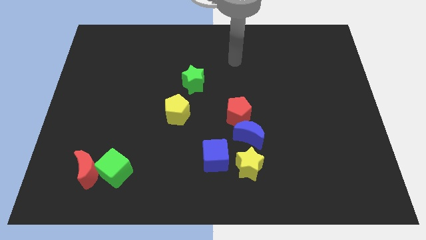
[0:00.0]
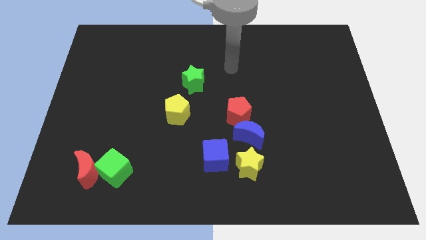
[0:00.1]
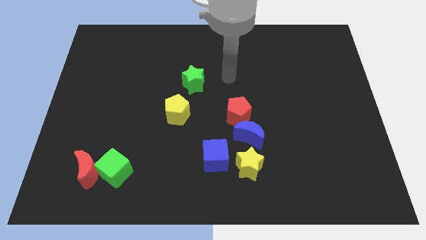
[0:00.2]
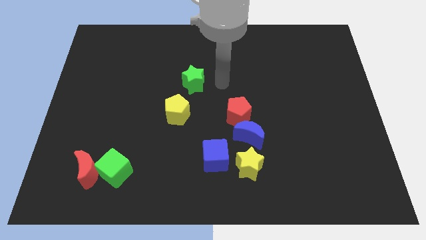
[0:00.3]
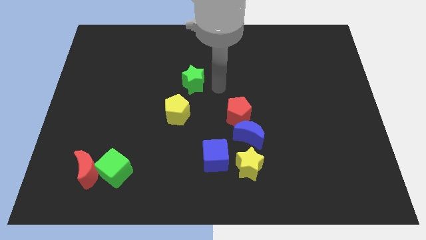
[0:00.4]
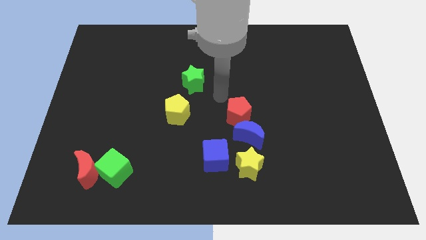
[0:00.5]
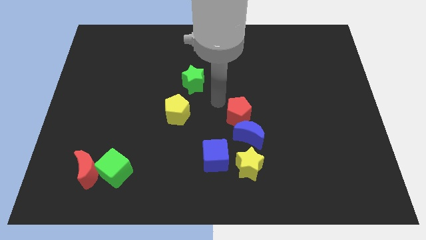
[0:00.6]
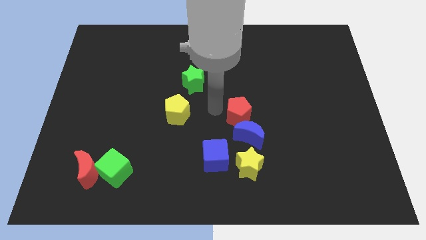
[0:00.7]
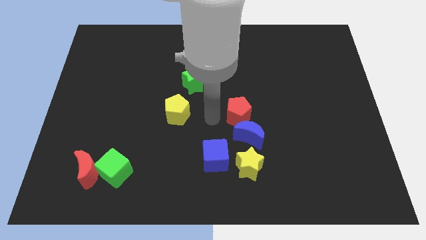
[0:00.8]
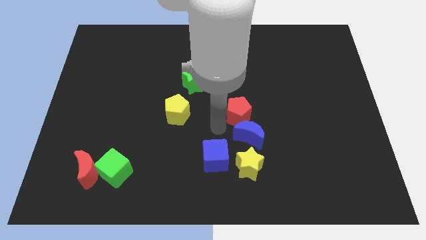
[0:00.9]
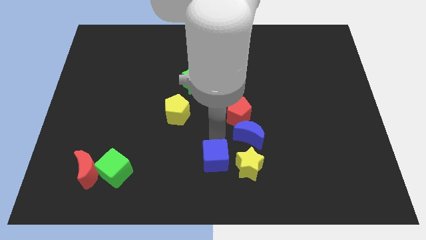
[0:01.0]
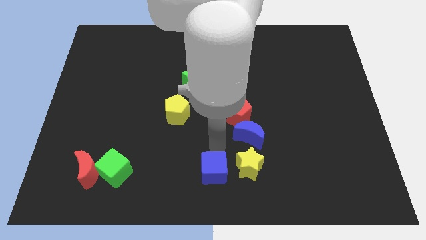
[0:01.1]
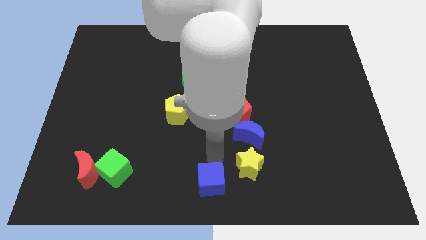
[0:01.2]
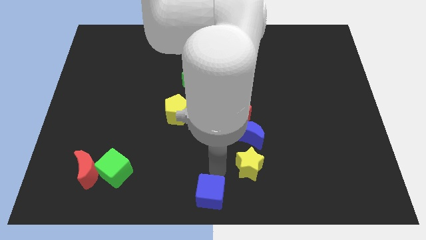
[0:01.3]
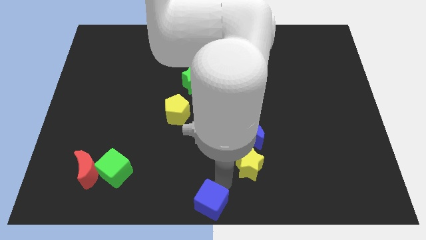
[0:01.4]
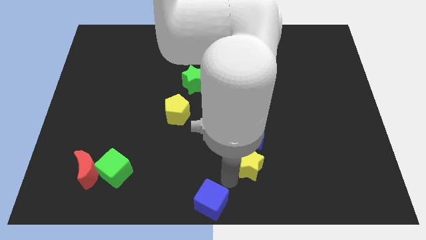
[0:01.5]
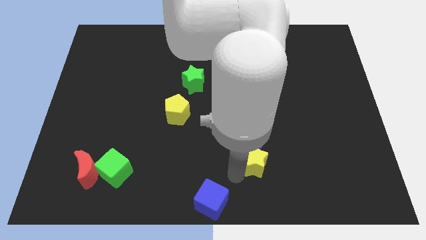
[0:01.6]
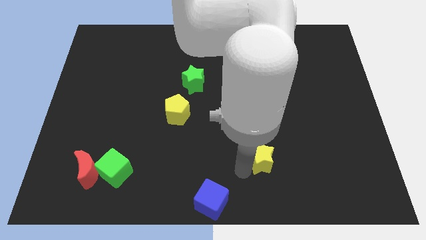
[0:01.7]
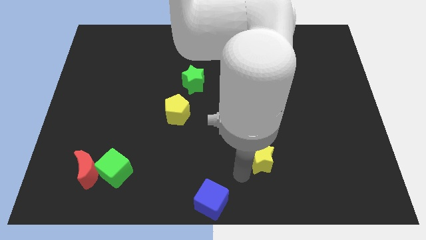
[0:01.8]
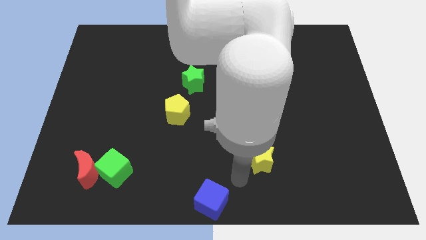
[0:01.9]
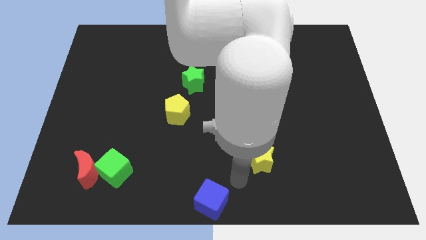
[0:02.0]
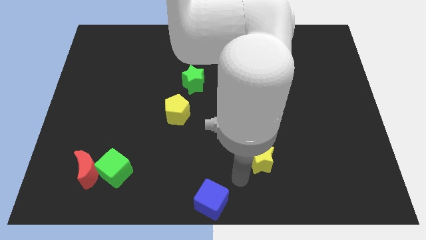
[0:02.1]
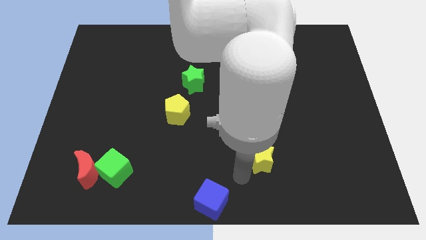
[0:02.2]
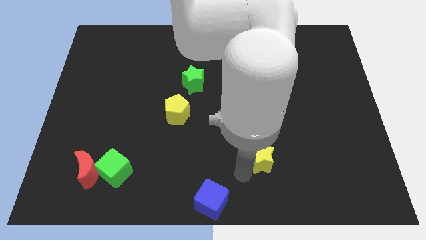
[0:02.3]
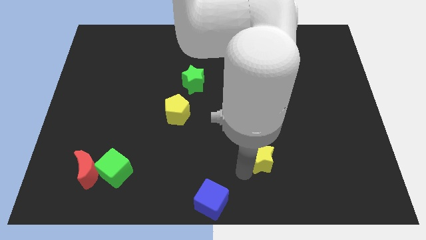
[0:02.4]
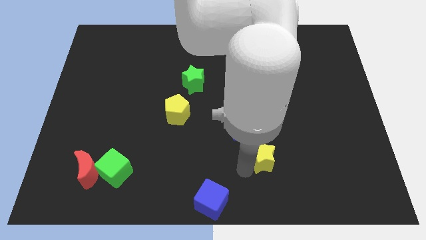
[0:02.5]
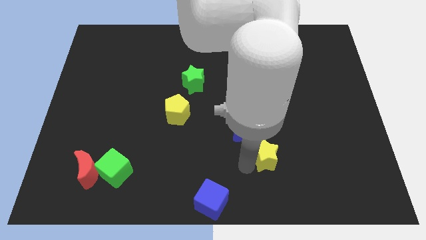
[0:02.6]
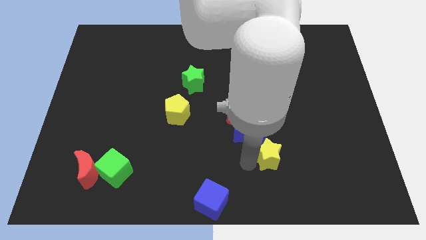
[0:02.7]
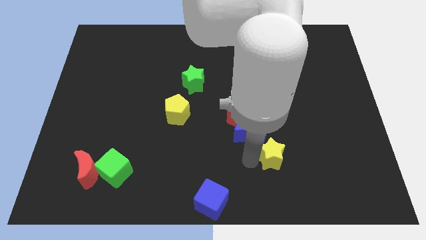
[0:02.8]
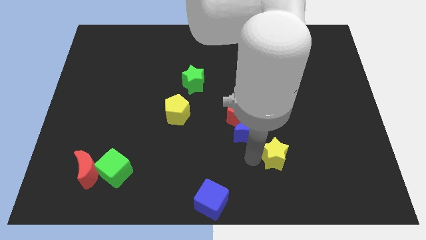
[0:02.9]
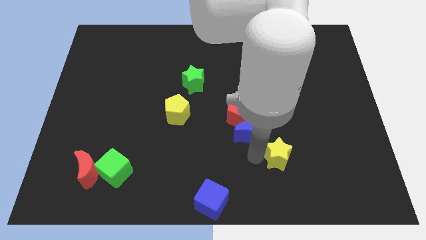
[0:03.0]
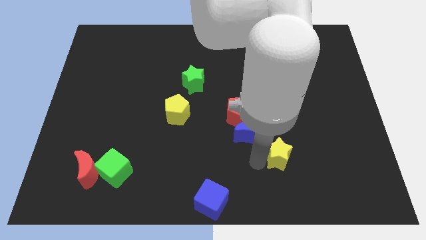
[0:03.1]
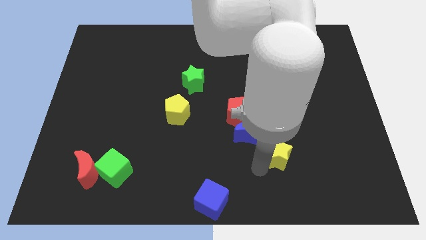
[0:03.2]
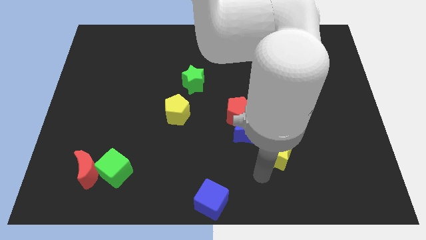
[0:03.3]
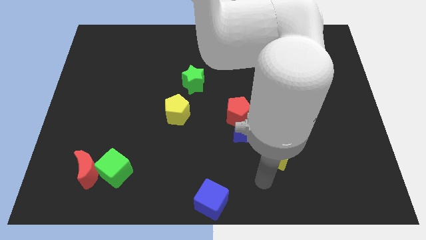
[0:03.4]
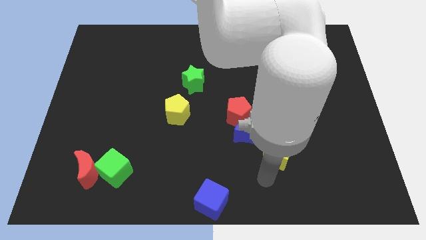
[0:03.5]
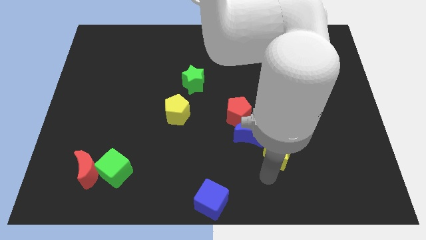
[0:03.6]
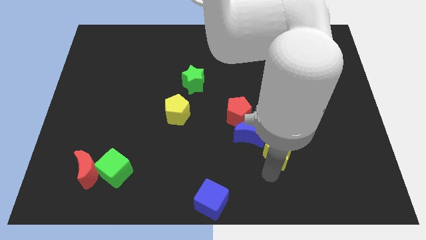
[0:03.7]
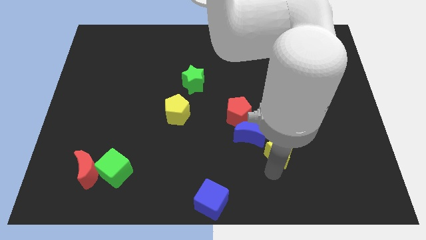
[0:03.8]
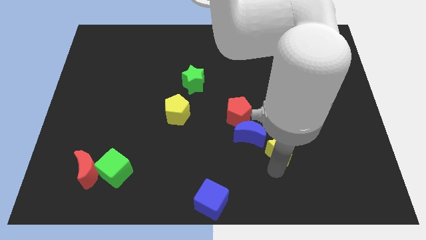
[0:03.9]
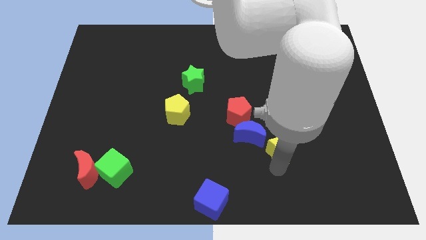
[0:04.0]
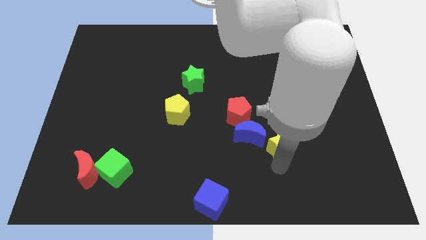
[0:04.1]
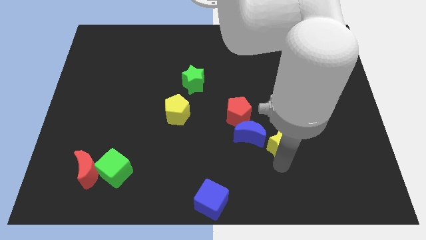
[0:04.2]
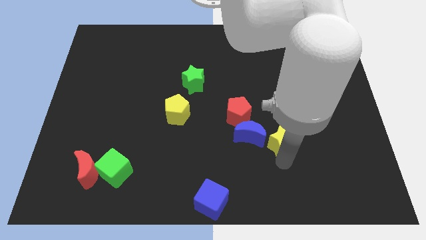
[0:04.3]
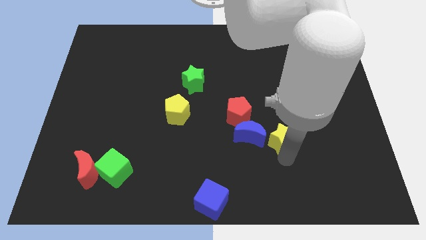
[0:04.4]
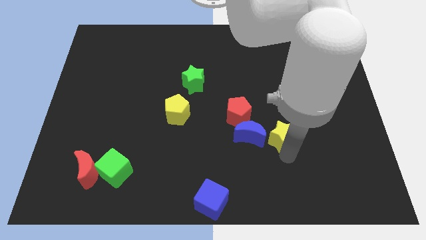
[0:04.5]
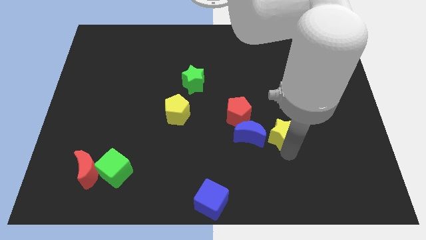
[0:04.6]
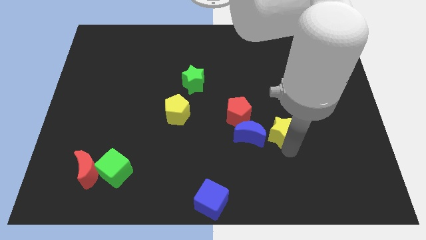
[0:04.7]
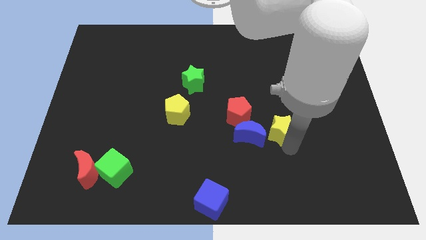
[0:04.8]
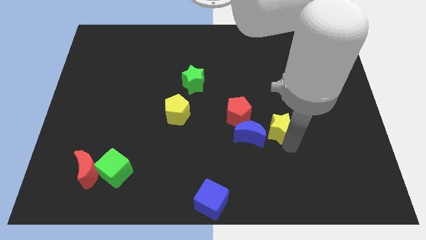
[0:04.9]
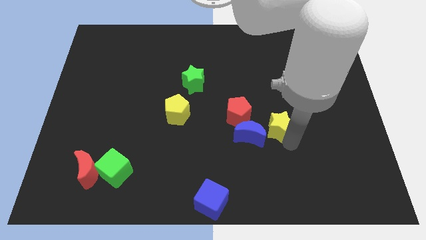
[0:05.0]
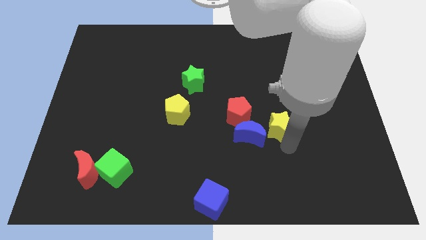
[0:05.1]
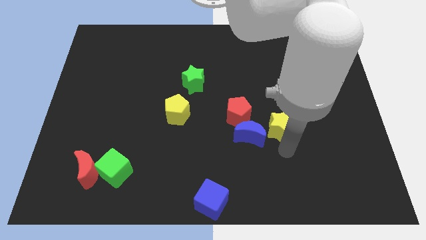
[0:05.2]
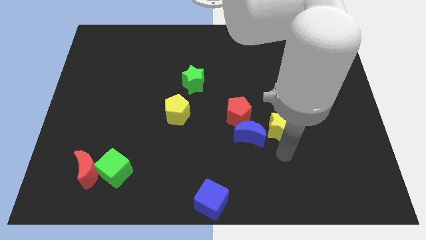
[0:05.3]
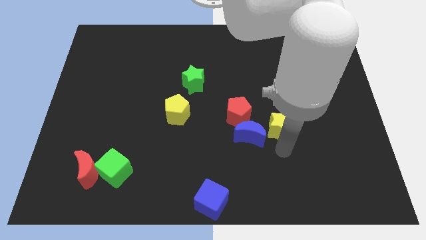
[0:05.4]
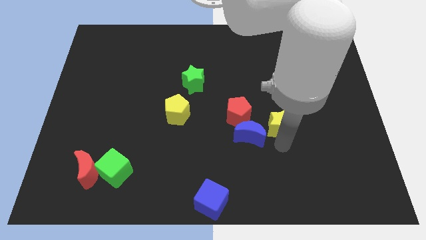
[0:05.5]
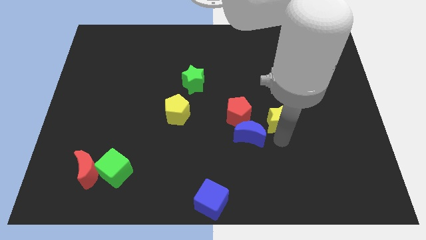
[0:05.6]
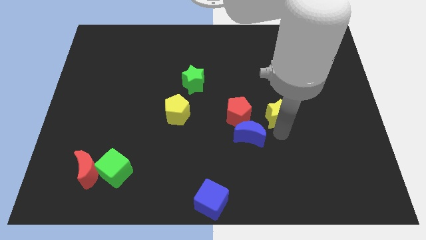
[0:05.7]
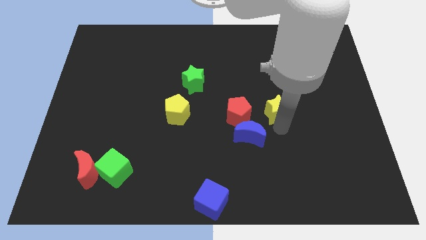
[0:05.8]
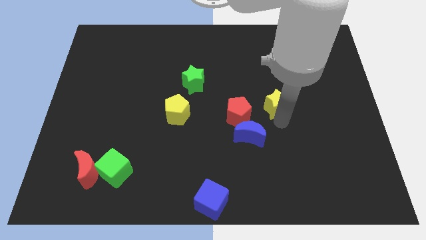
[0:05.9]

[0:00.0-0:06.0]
push the yellow star to the top right side of the red pentagon

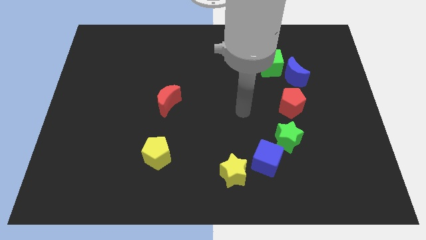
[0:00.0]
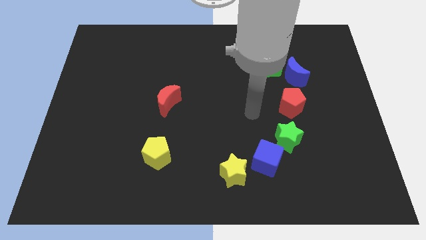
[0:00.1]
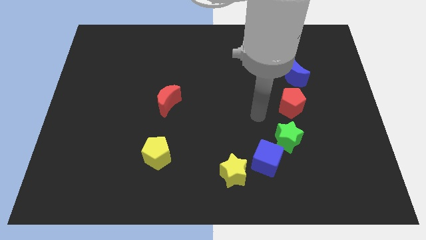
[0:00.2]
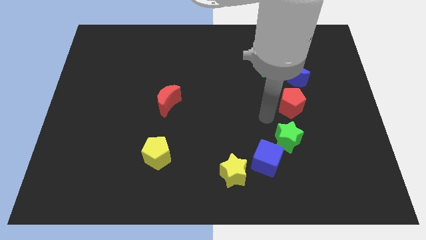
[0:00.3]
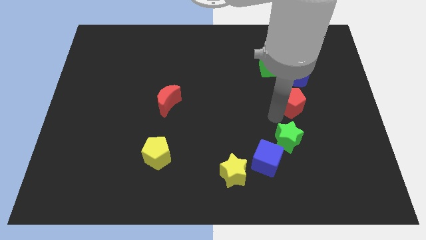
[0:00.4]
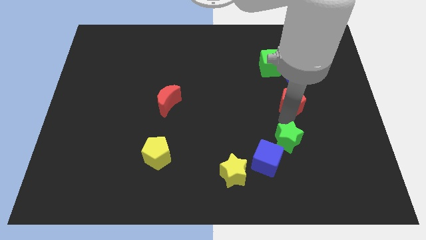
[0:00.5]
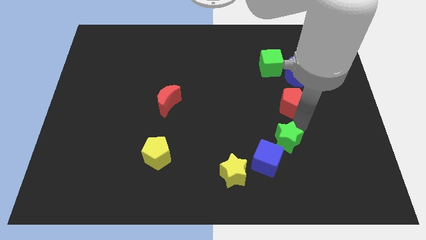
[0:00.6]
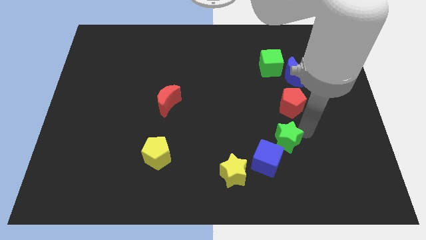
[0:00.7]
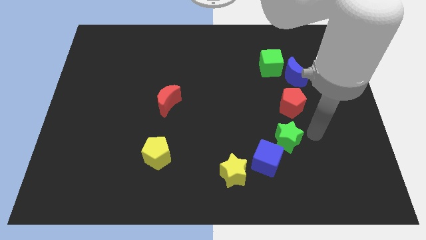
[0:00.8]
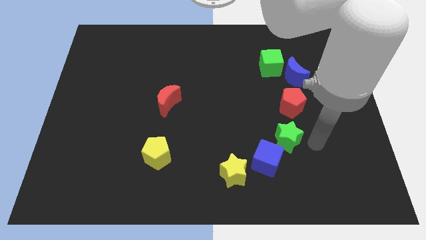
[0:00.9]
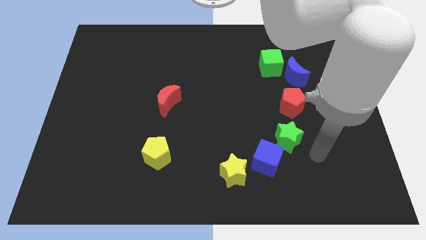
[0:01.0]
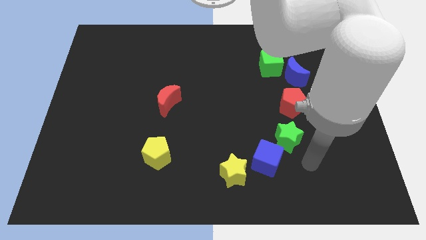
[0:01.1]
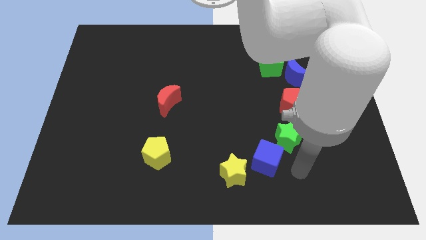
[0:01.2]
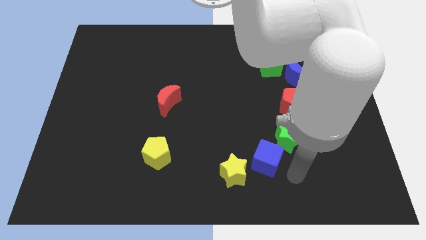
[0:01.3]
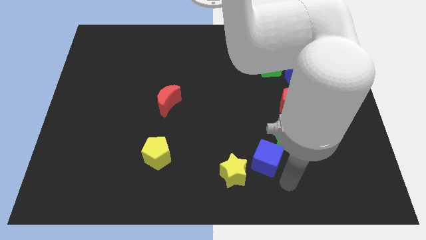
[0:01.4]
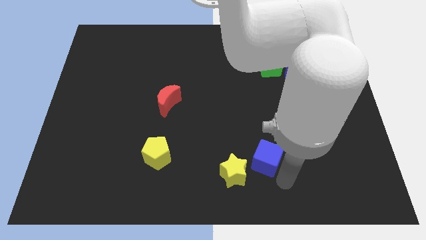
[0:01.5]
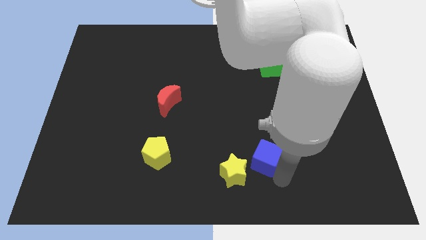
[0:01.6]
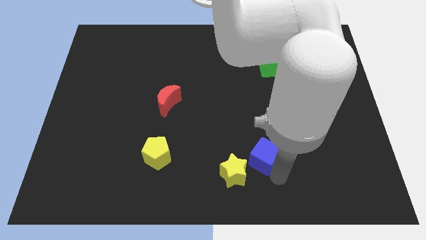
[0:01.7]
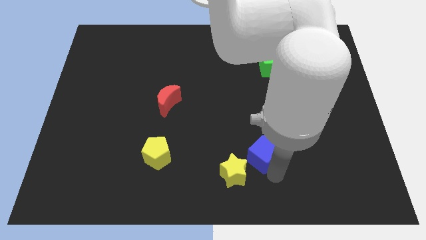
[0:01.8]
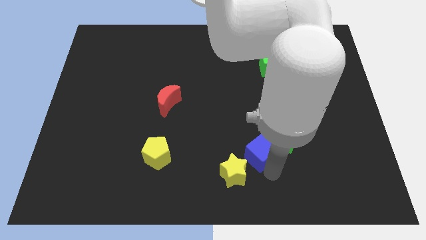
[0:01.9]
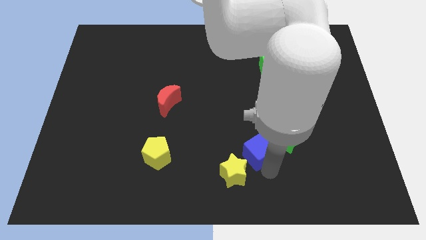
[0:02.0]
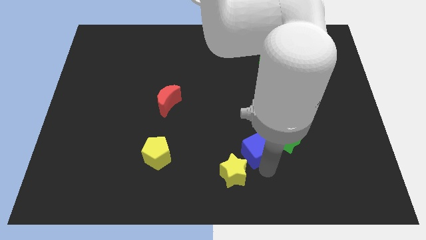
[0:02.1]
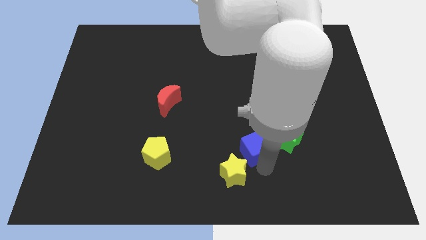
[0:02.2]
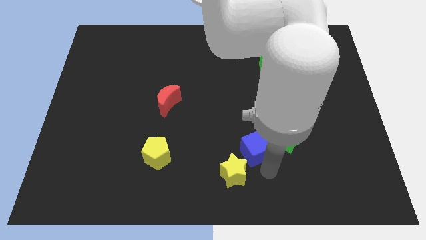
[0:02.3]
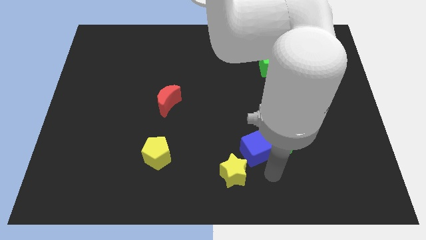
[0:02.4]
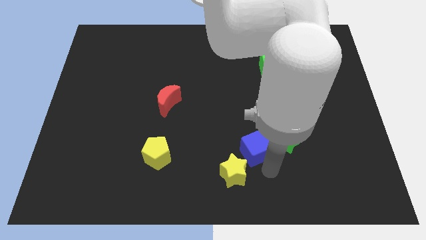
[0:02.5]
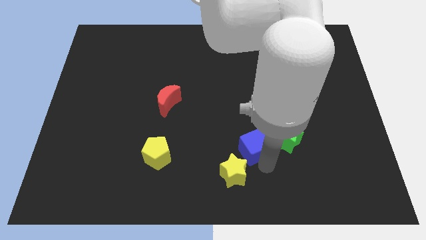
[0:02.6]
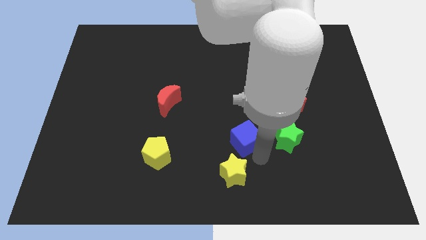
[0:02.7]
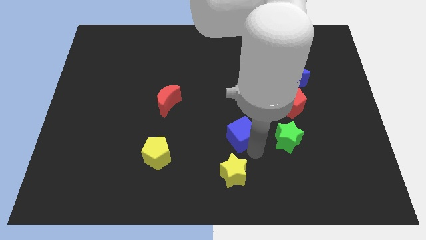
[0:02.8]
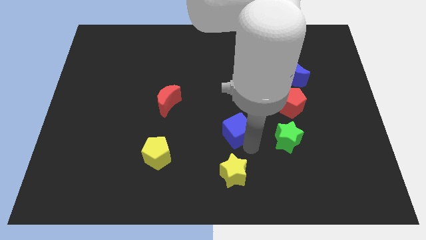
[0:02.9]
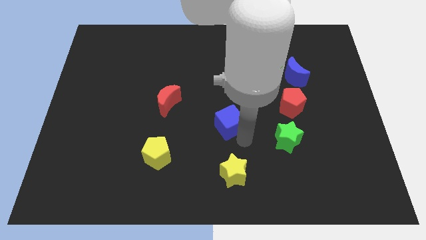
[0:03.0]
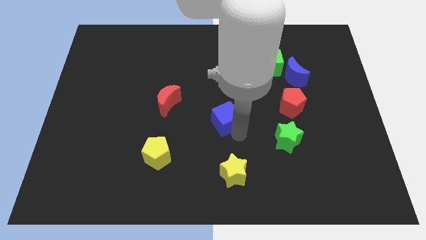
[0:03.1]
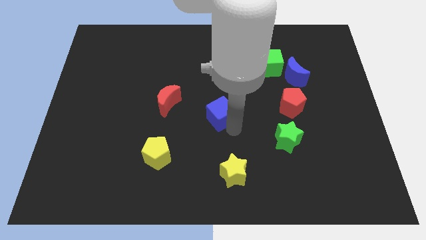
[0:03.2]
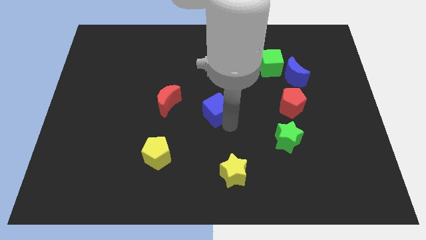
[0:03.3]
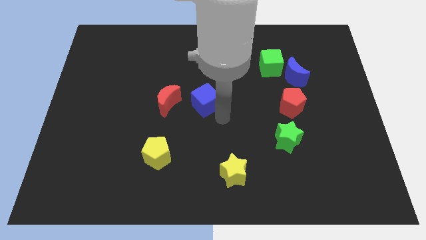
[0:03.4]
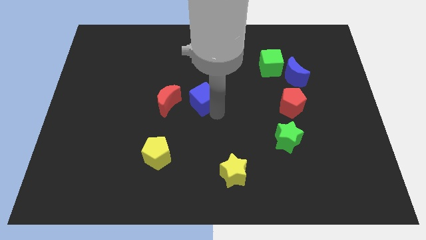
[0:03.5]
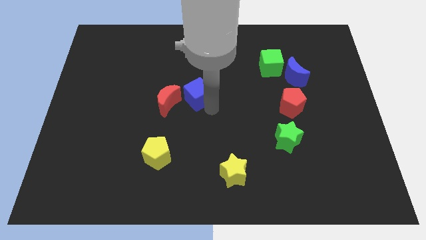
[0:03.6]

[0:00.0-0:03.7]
slide the blue cube to the top right of the red moon
